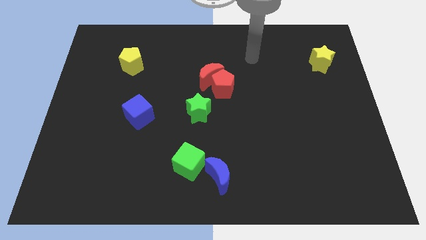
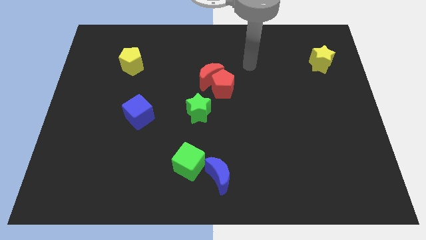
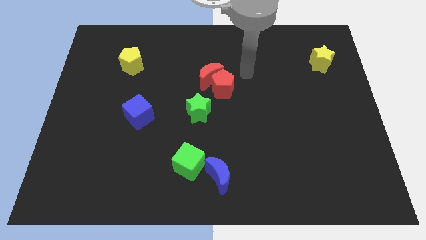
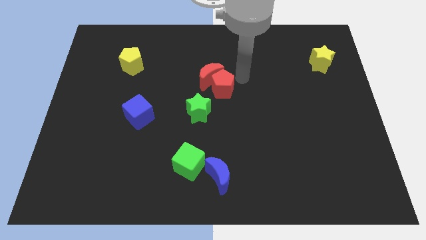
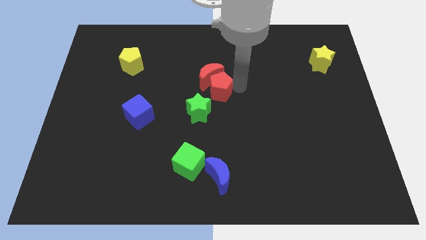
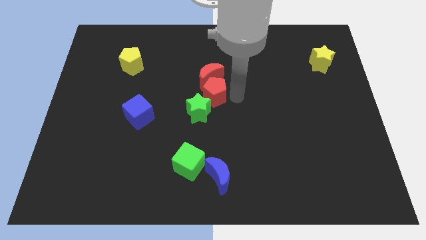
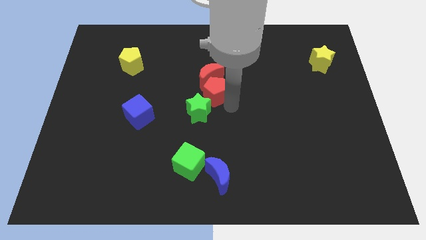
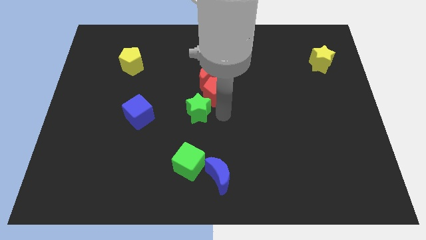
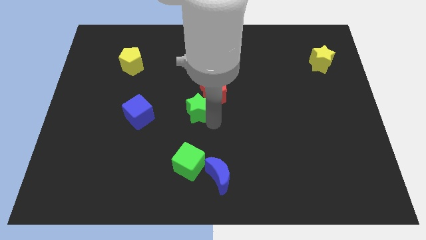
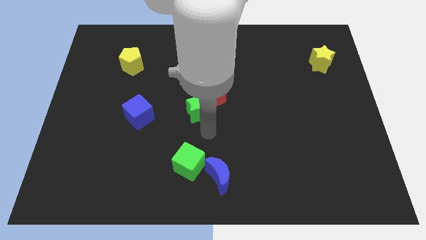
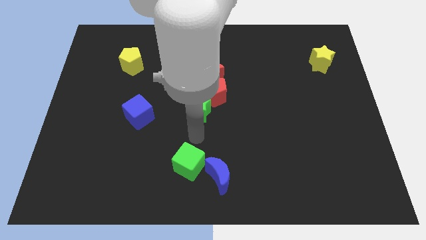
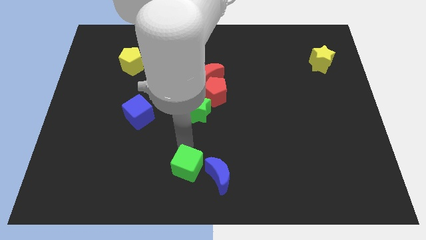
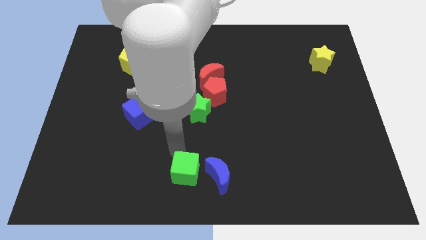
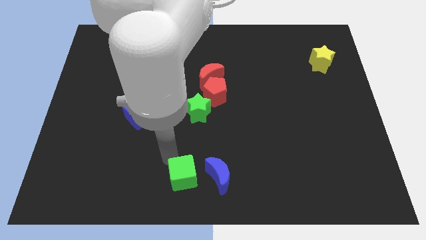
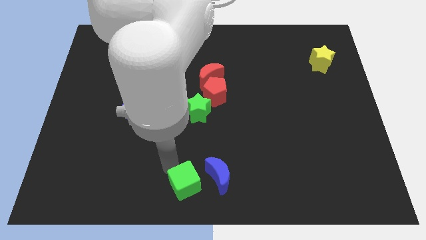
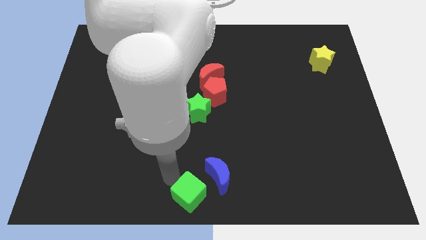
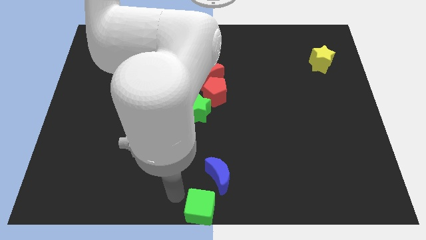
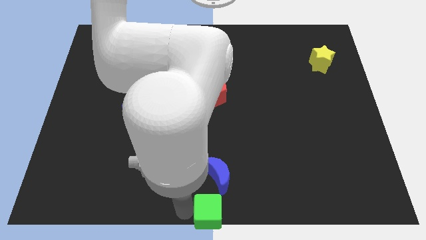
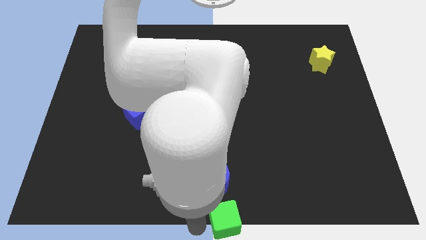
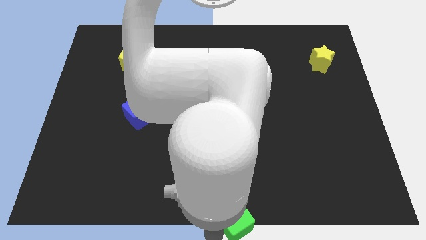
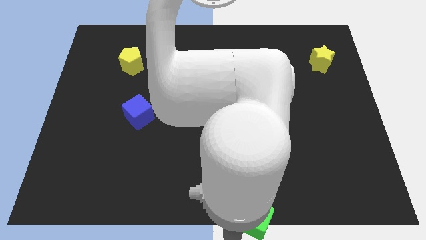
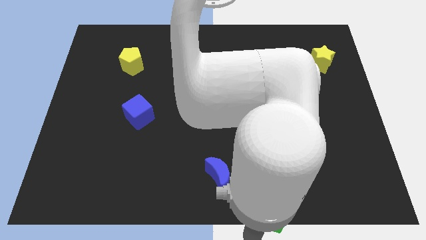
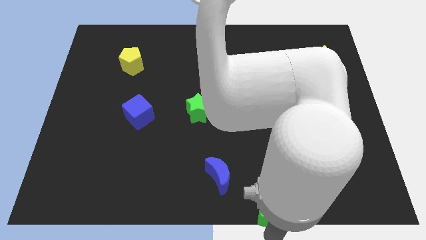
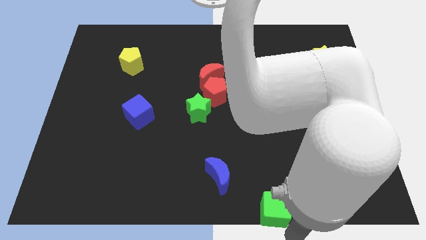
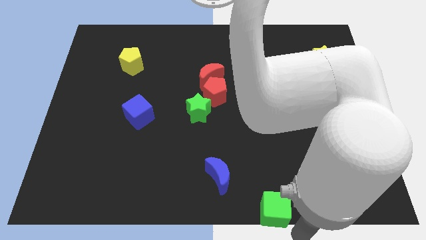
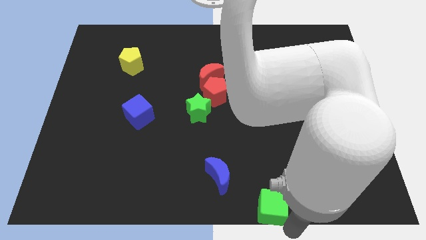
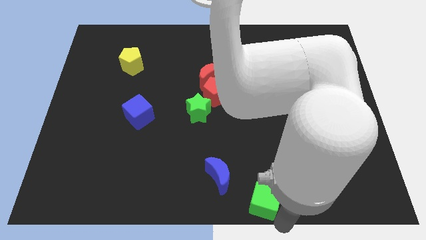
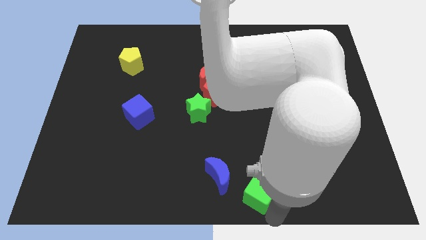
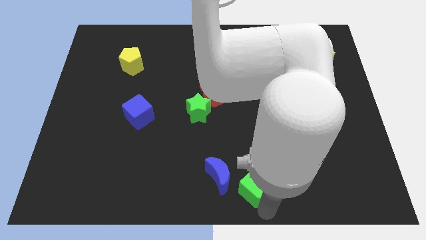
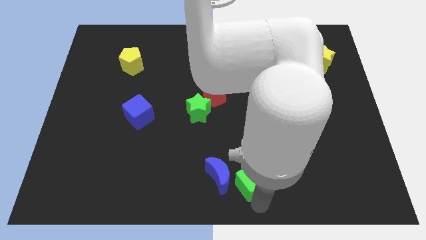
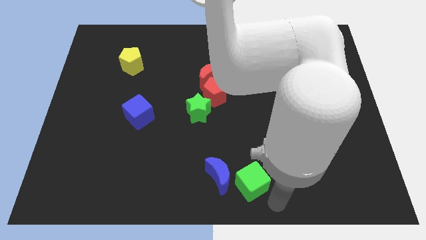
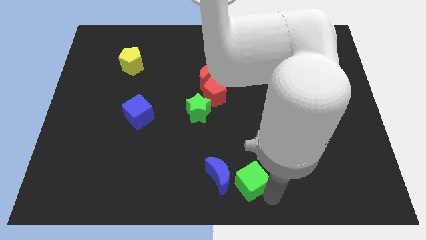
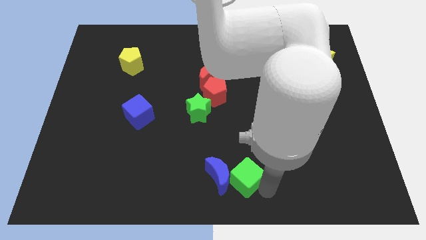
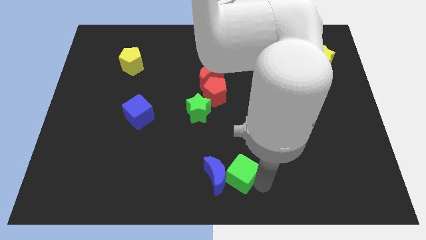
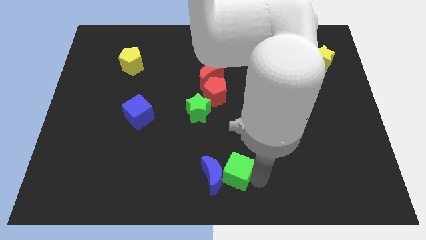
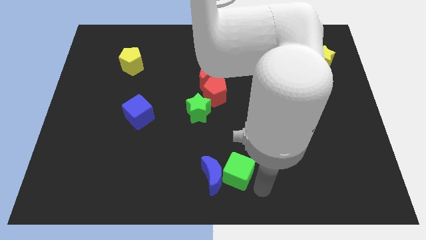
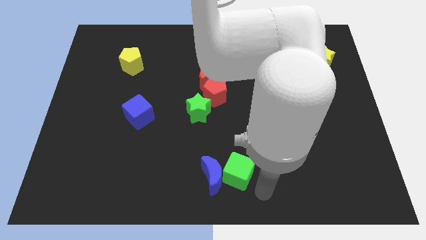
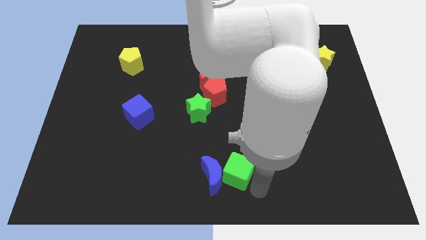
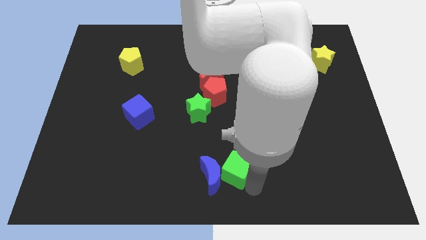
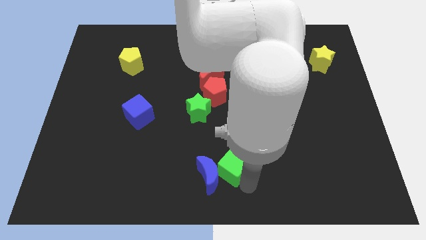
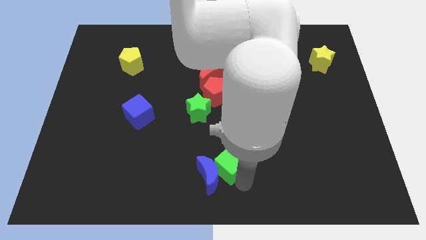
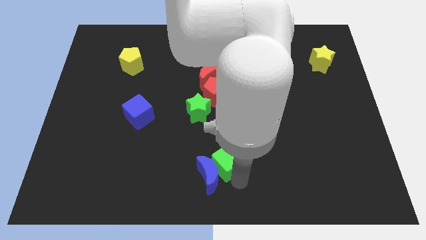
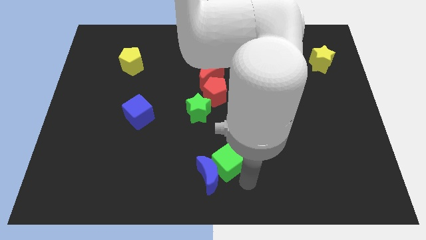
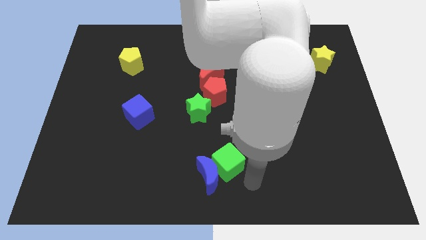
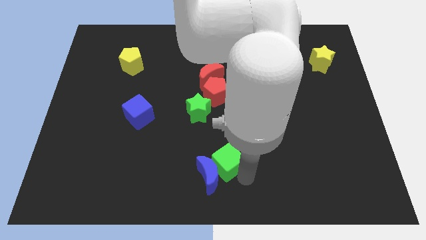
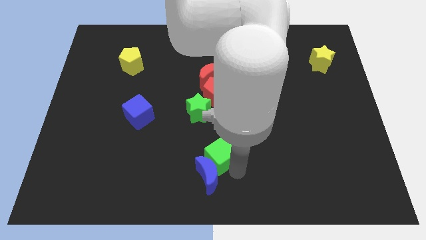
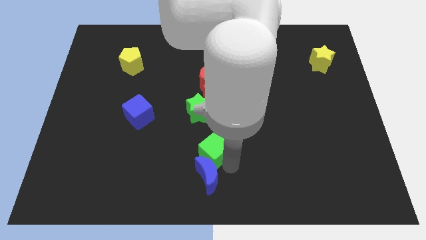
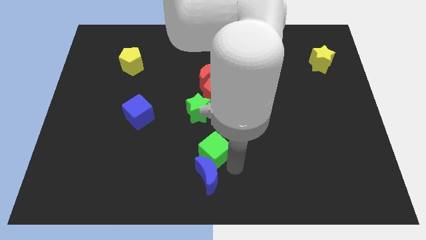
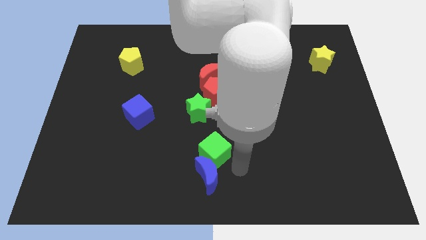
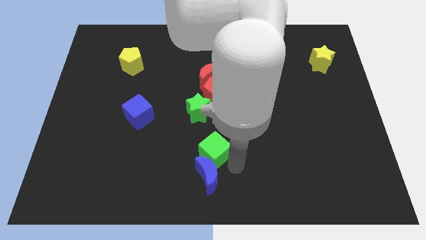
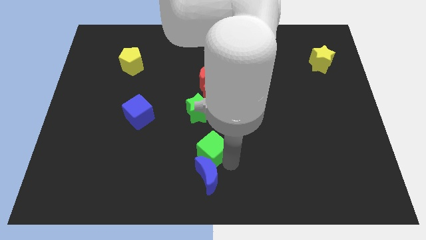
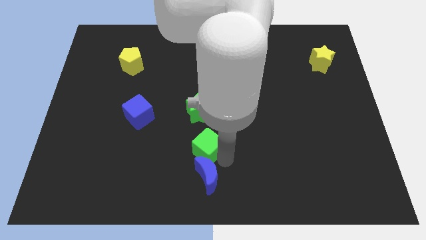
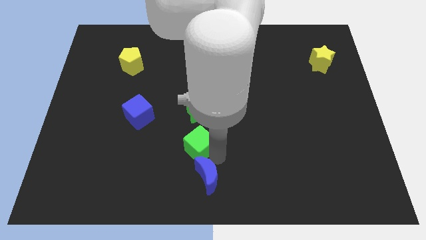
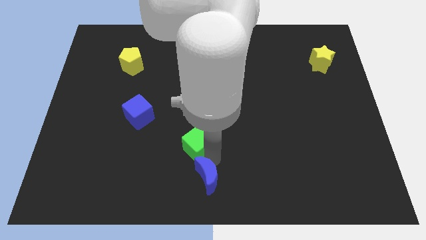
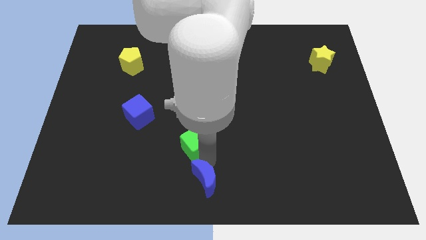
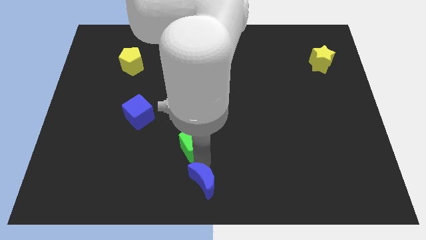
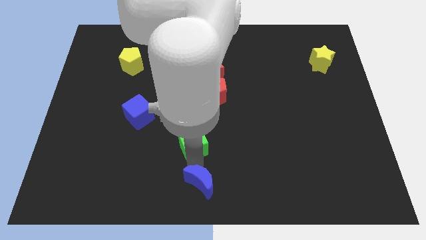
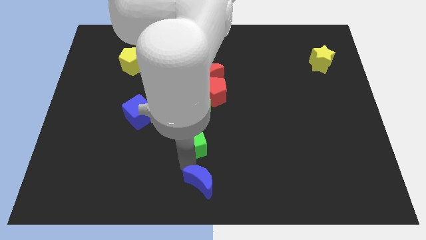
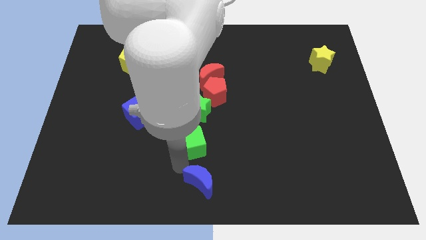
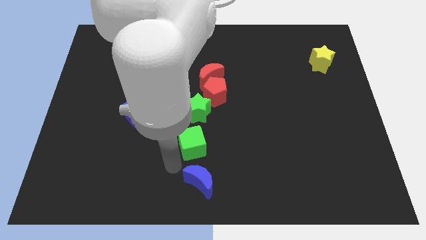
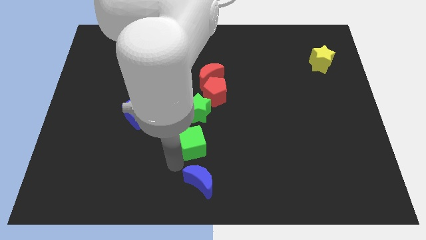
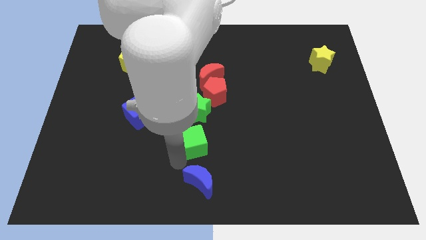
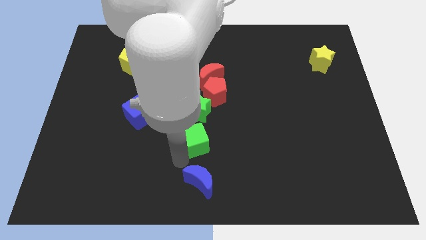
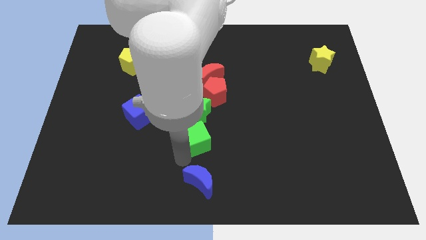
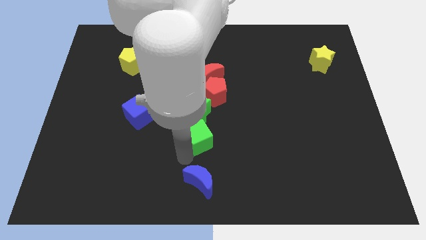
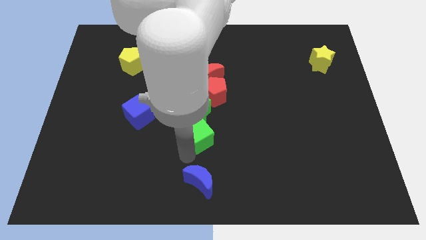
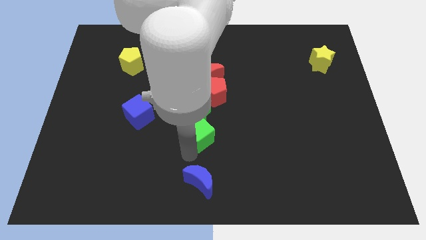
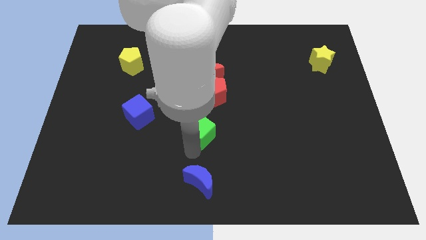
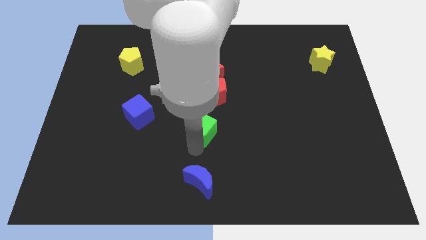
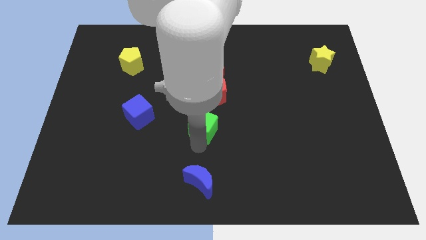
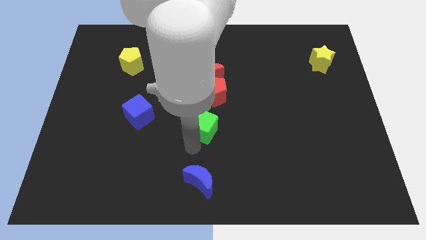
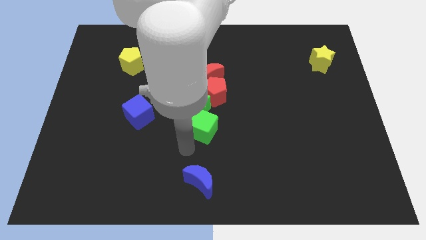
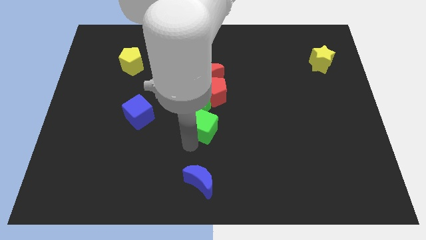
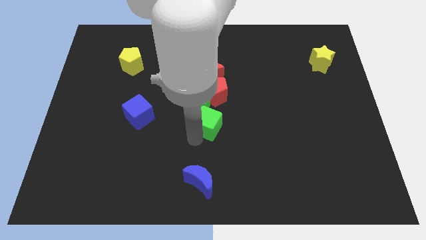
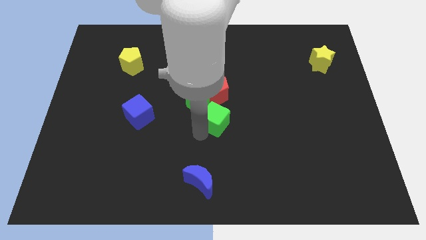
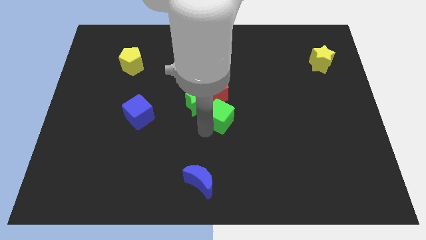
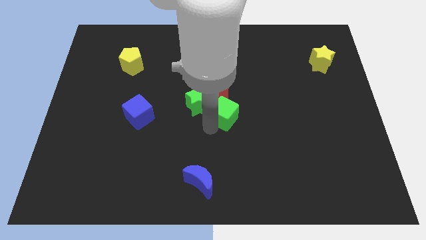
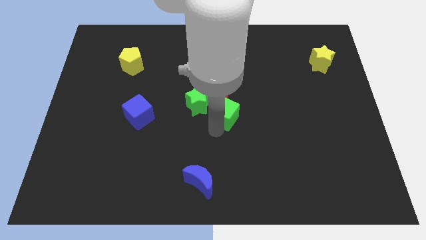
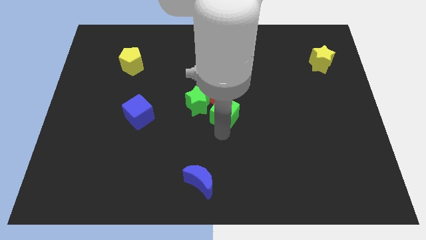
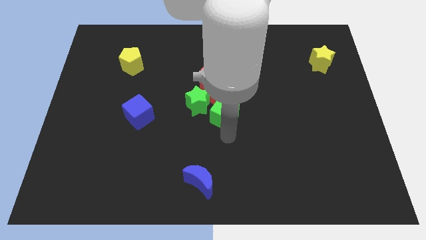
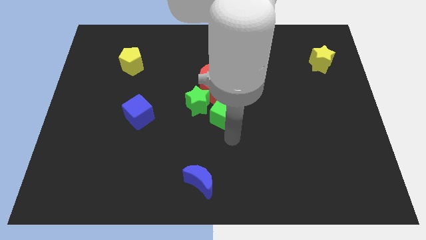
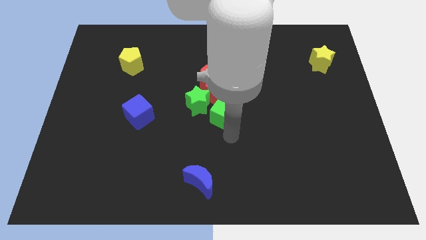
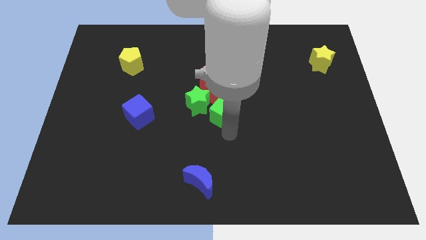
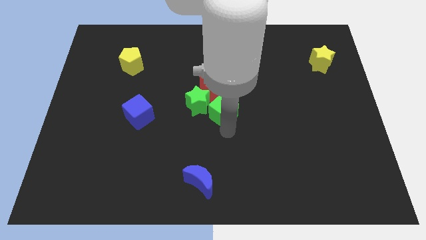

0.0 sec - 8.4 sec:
push the green cube towards the red pentagon
